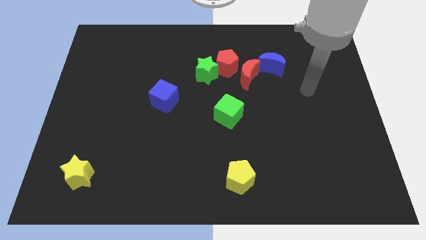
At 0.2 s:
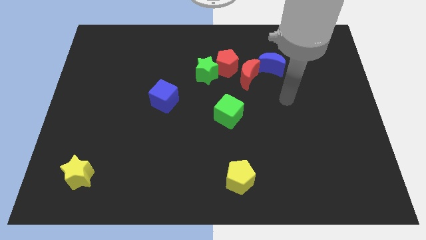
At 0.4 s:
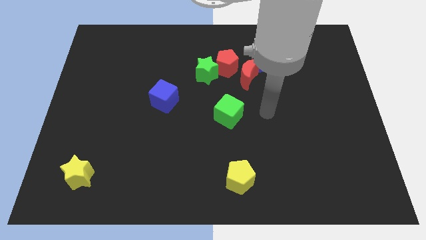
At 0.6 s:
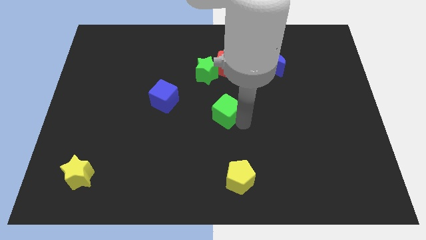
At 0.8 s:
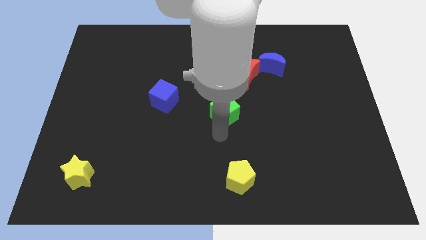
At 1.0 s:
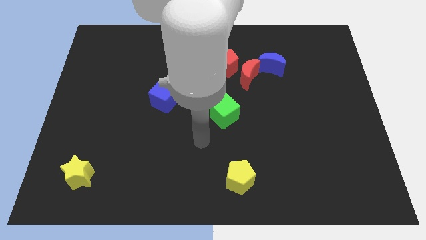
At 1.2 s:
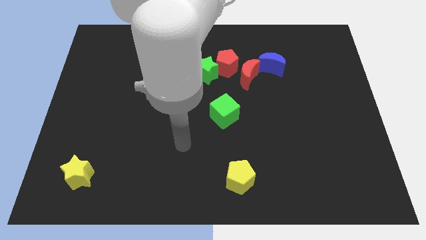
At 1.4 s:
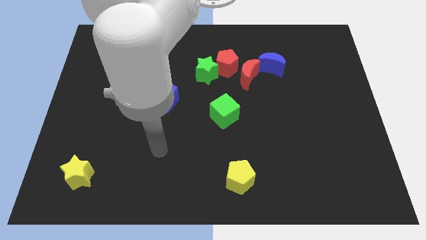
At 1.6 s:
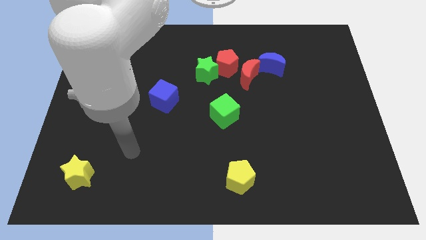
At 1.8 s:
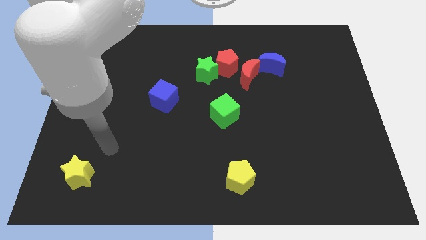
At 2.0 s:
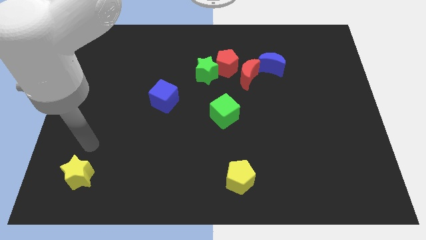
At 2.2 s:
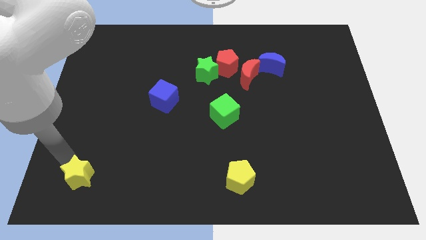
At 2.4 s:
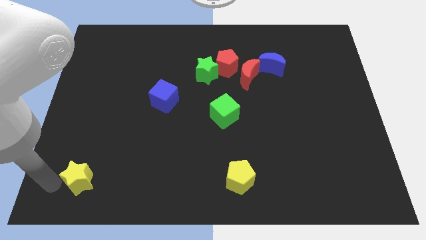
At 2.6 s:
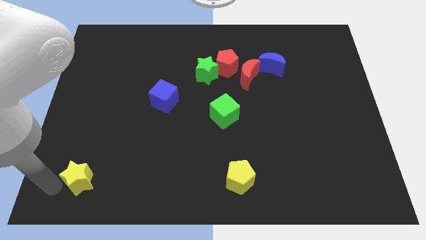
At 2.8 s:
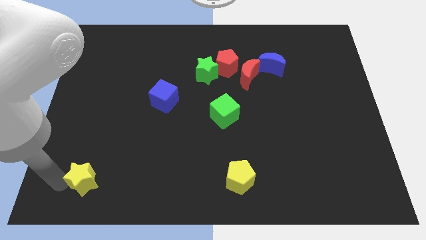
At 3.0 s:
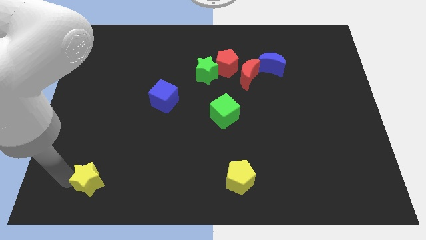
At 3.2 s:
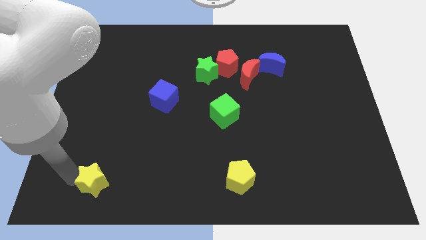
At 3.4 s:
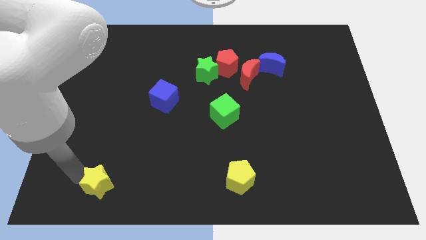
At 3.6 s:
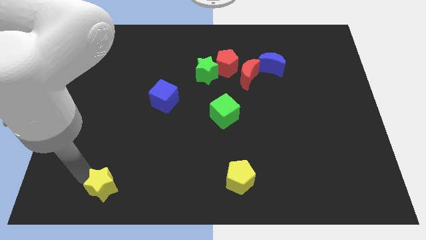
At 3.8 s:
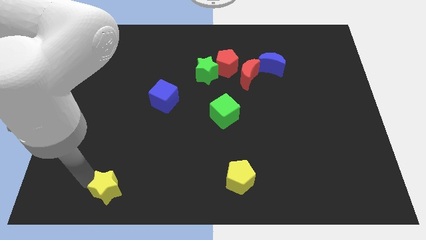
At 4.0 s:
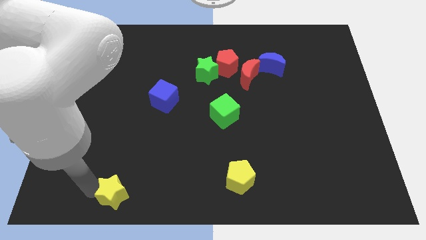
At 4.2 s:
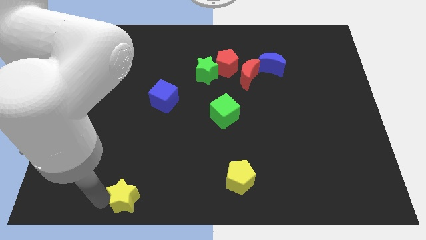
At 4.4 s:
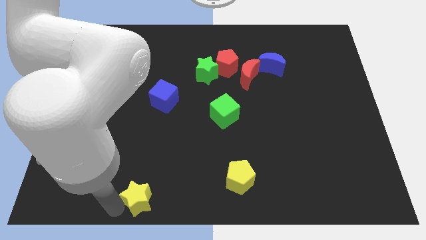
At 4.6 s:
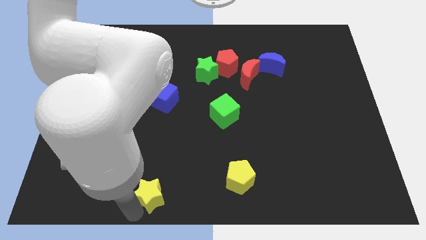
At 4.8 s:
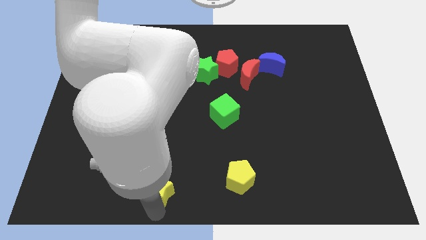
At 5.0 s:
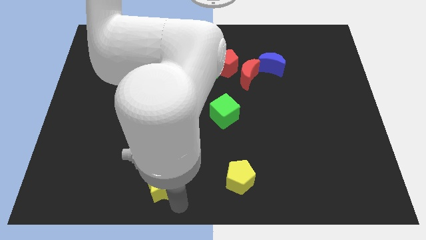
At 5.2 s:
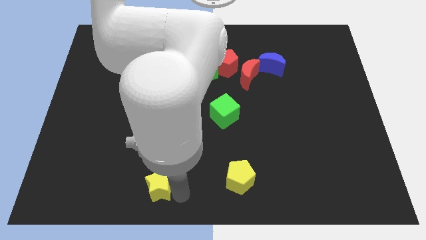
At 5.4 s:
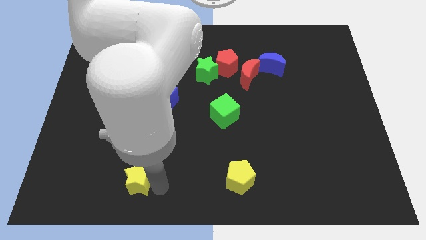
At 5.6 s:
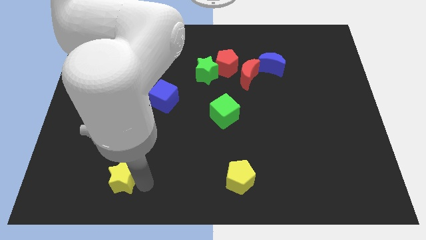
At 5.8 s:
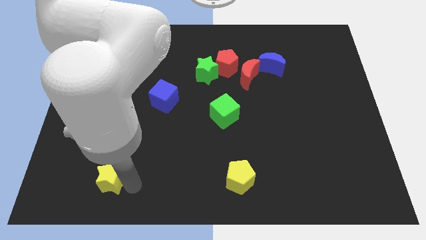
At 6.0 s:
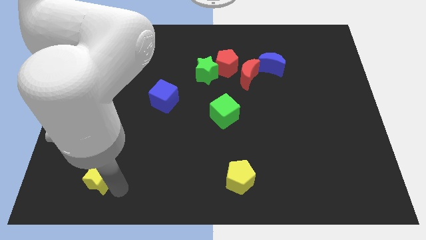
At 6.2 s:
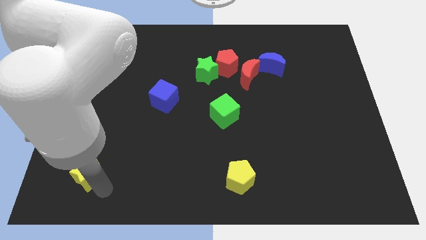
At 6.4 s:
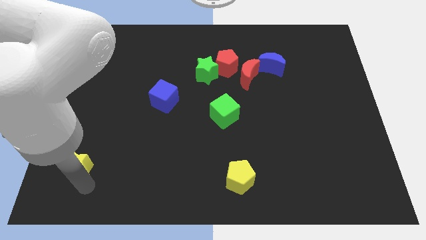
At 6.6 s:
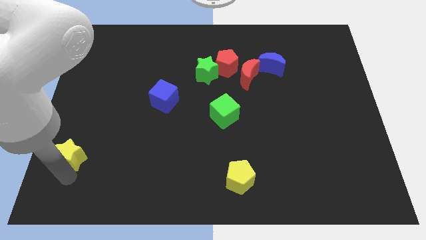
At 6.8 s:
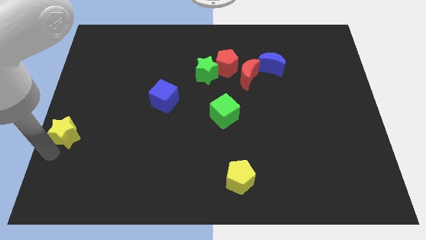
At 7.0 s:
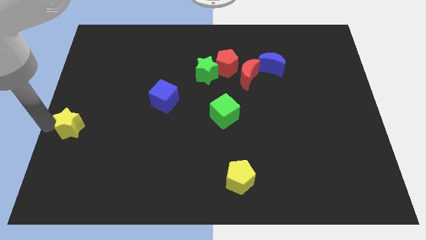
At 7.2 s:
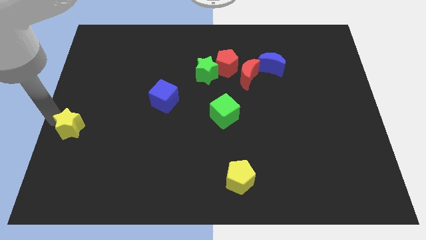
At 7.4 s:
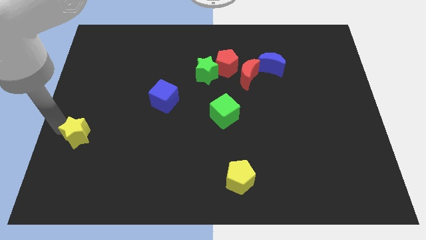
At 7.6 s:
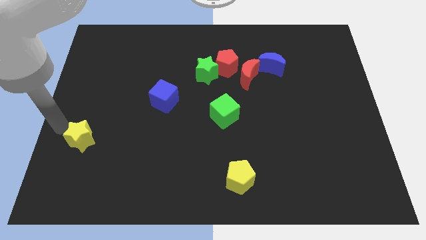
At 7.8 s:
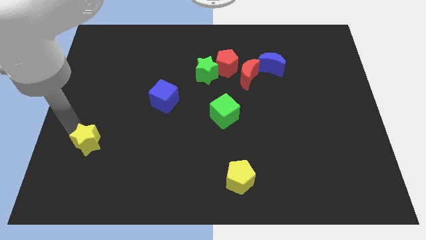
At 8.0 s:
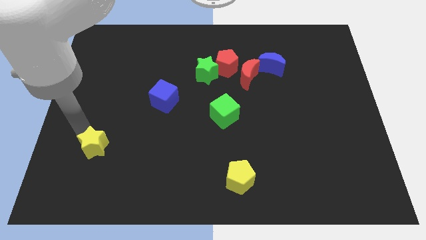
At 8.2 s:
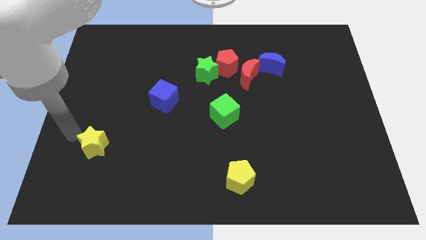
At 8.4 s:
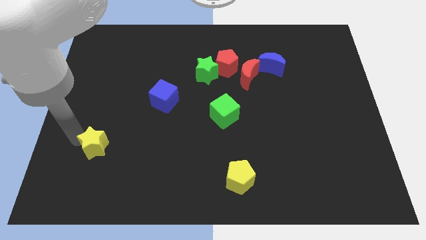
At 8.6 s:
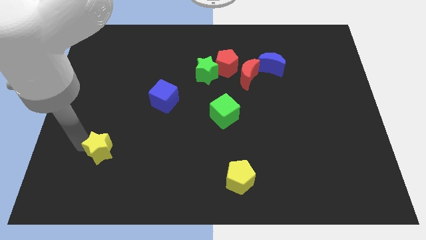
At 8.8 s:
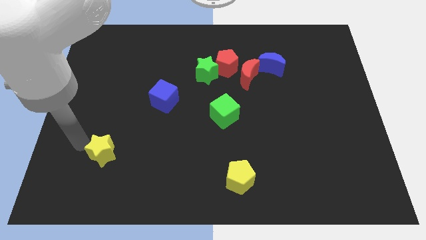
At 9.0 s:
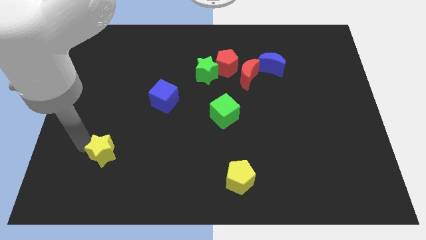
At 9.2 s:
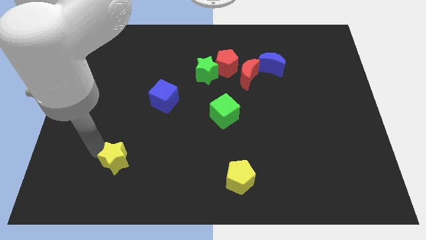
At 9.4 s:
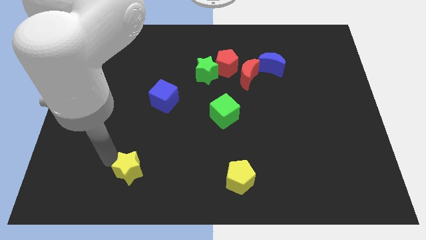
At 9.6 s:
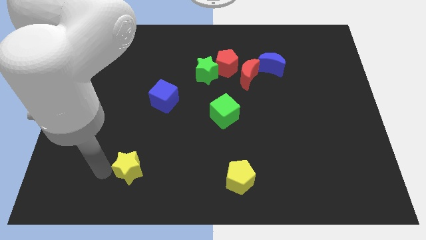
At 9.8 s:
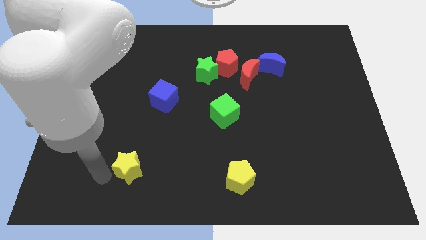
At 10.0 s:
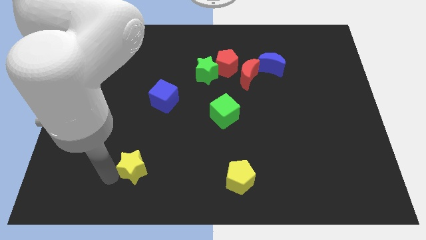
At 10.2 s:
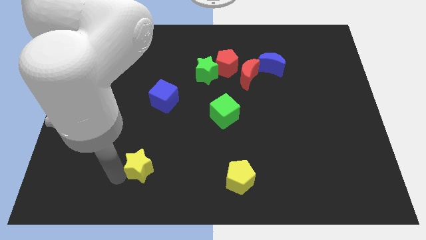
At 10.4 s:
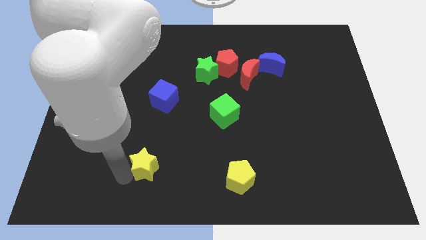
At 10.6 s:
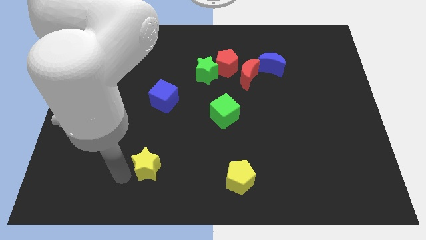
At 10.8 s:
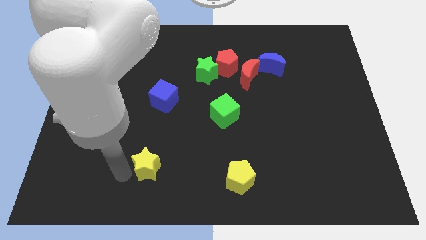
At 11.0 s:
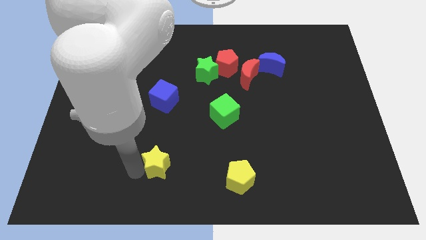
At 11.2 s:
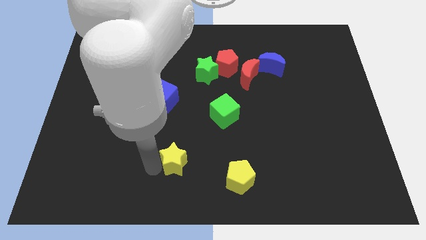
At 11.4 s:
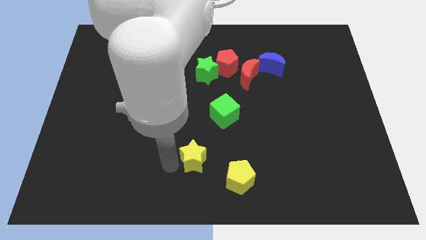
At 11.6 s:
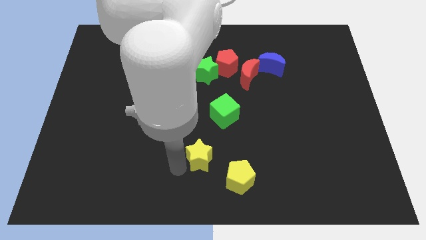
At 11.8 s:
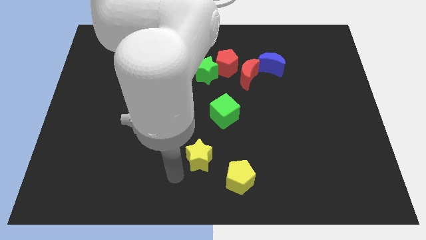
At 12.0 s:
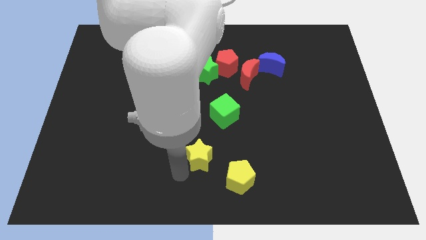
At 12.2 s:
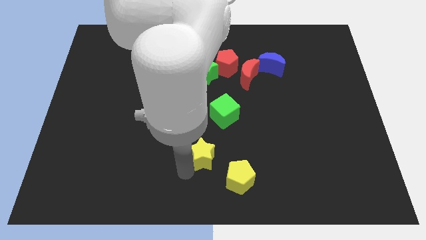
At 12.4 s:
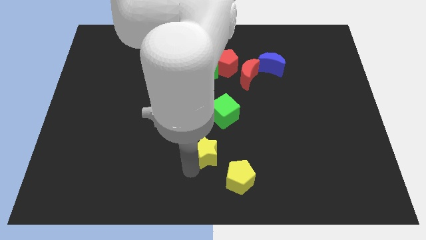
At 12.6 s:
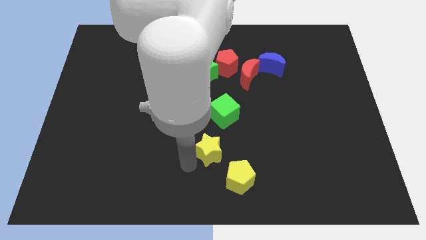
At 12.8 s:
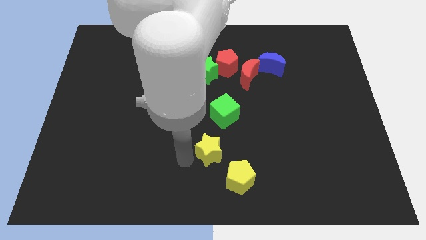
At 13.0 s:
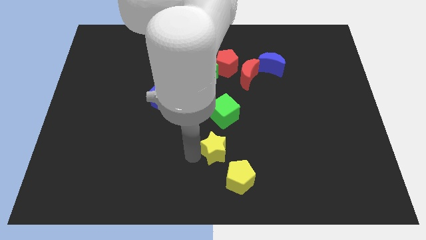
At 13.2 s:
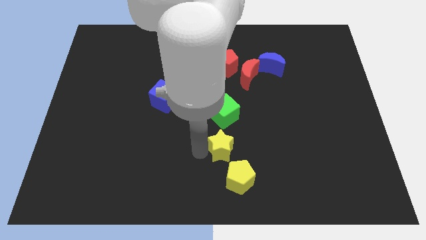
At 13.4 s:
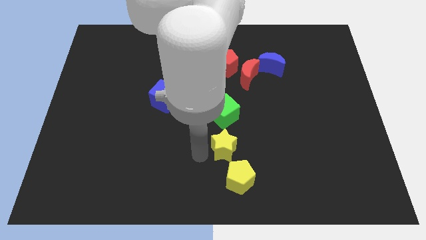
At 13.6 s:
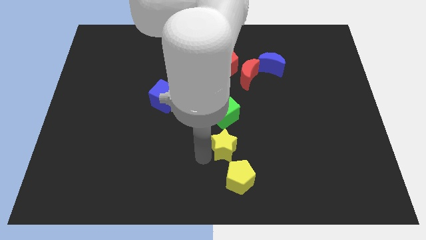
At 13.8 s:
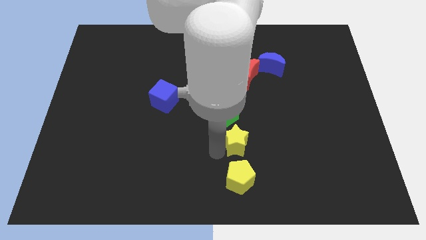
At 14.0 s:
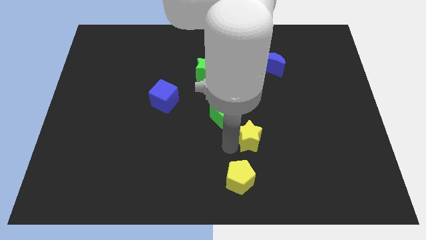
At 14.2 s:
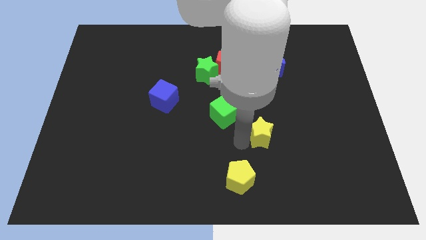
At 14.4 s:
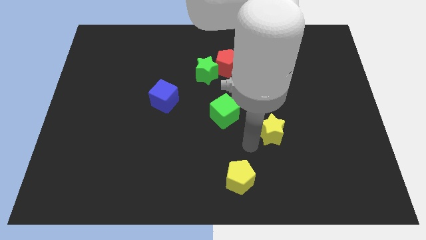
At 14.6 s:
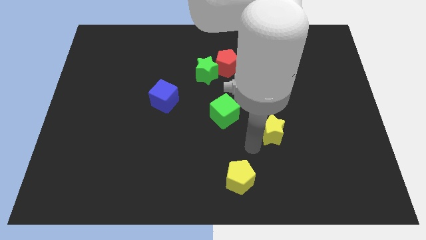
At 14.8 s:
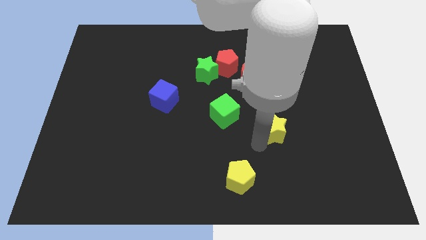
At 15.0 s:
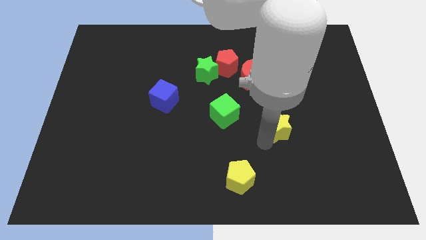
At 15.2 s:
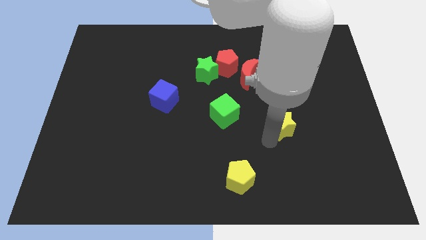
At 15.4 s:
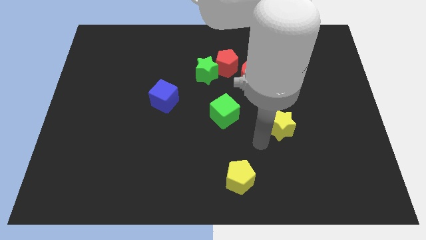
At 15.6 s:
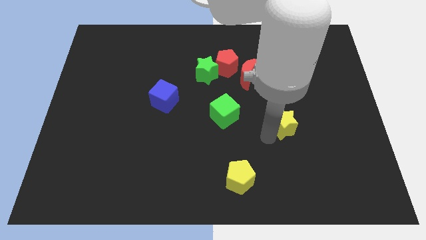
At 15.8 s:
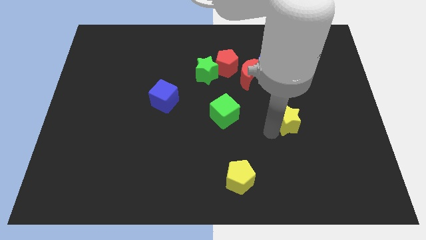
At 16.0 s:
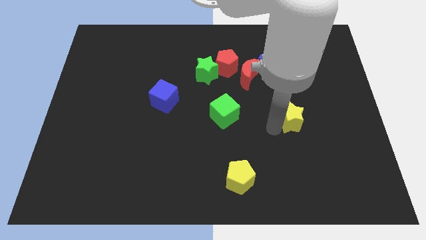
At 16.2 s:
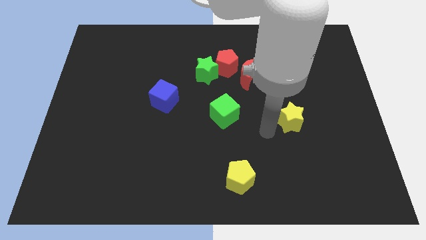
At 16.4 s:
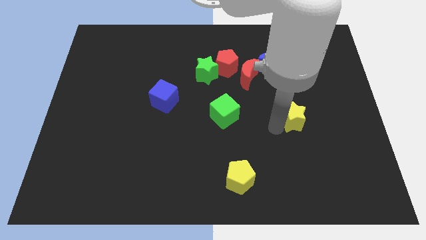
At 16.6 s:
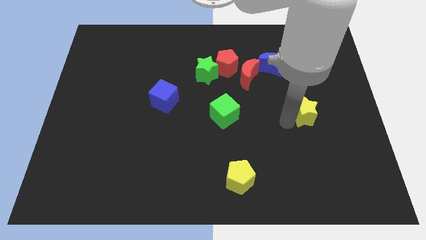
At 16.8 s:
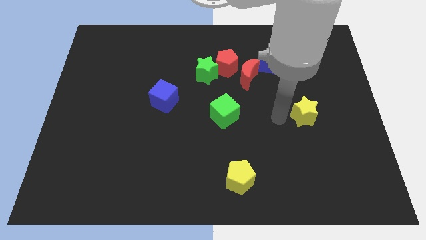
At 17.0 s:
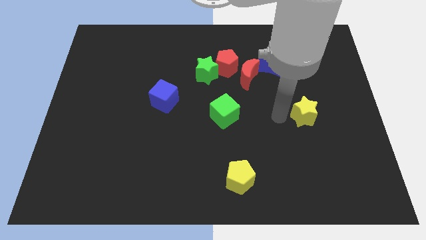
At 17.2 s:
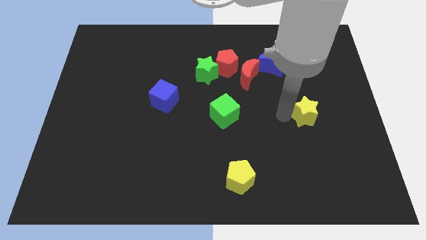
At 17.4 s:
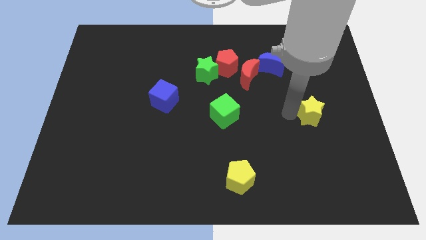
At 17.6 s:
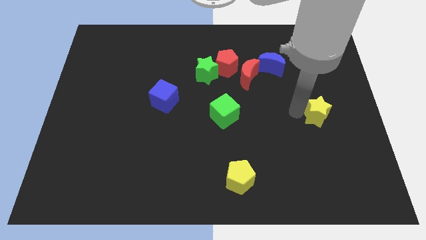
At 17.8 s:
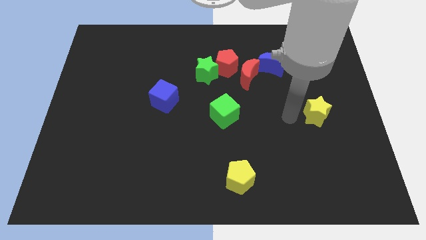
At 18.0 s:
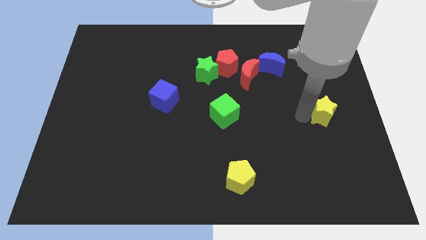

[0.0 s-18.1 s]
put the yellow star to the right side of the board
